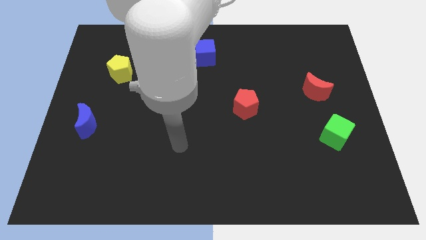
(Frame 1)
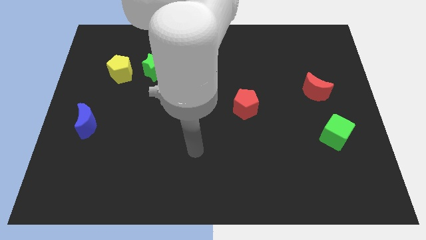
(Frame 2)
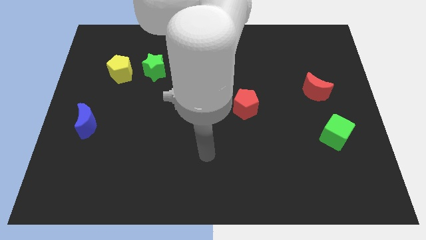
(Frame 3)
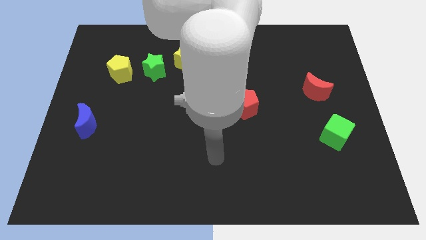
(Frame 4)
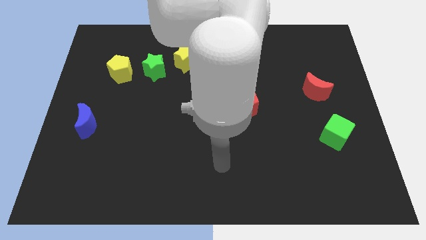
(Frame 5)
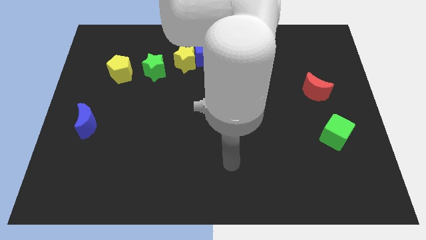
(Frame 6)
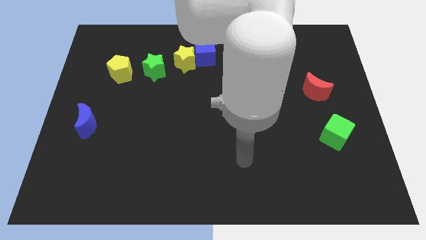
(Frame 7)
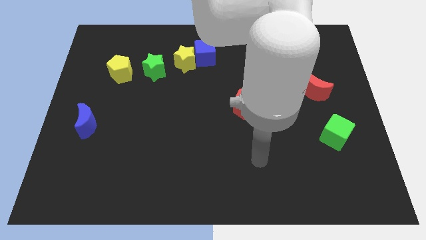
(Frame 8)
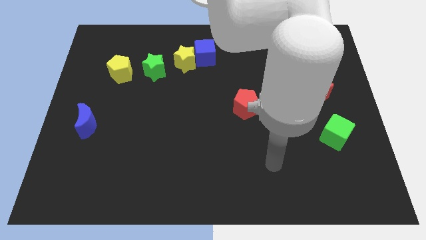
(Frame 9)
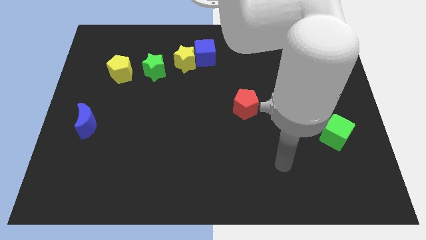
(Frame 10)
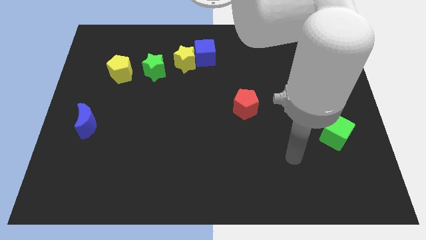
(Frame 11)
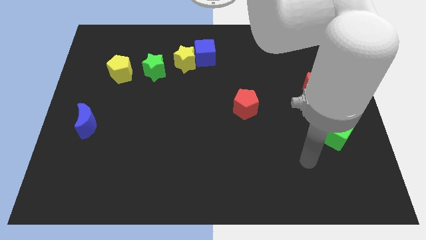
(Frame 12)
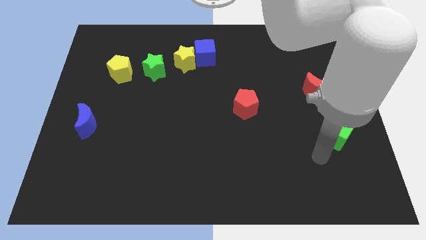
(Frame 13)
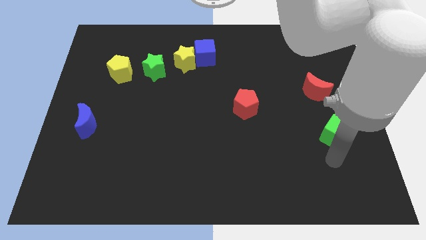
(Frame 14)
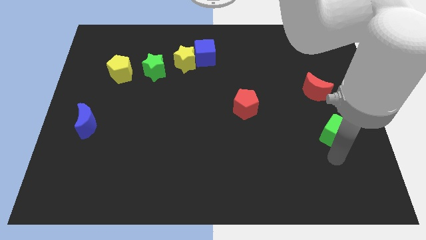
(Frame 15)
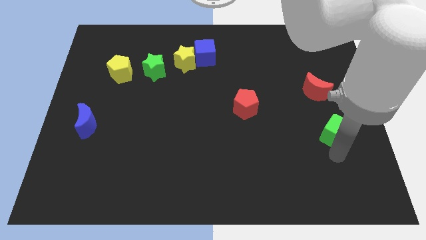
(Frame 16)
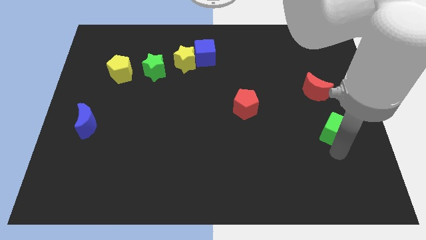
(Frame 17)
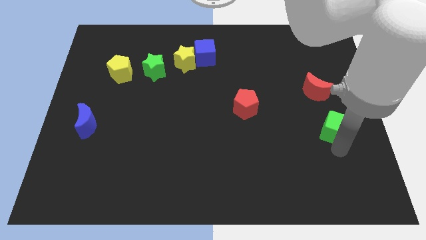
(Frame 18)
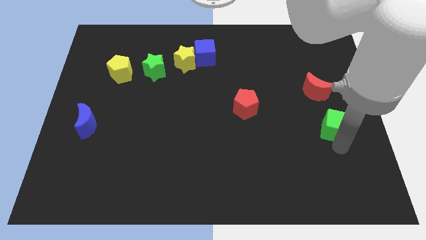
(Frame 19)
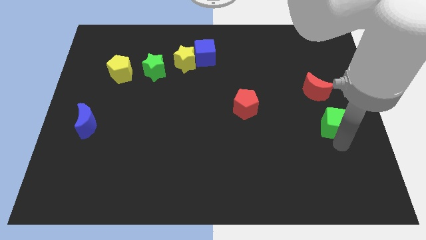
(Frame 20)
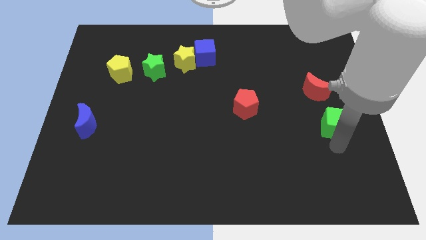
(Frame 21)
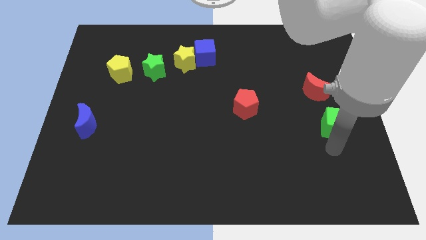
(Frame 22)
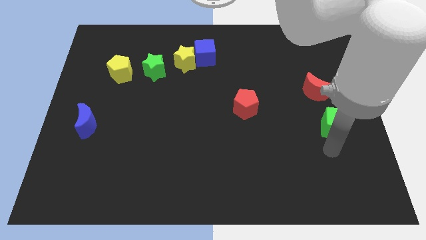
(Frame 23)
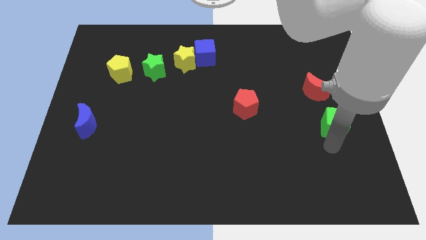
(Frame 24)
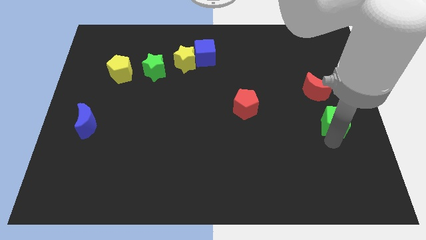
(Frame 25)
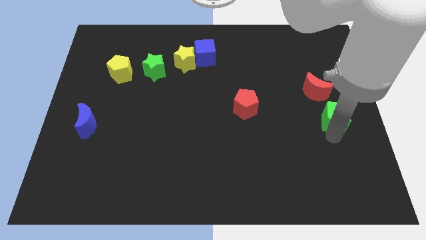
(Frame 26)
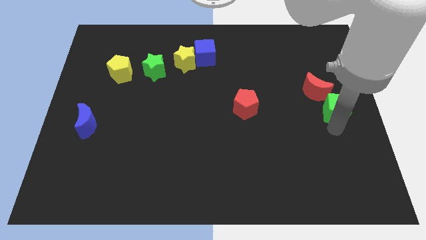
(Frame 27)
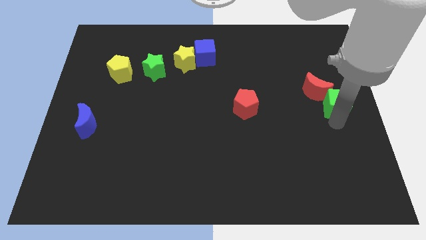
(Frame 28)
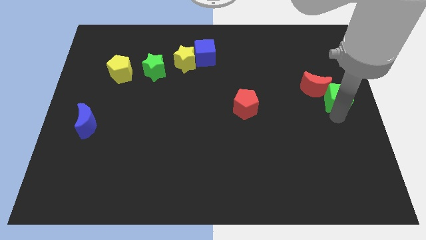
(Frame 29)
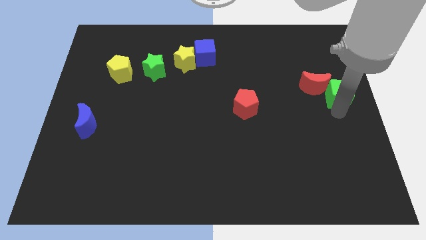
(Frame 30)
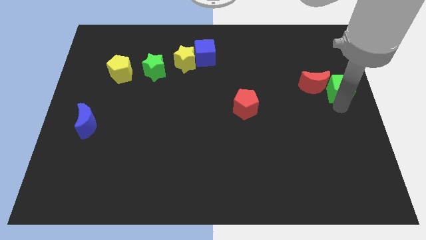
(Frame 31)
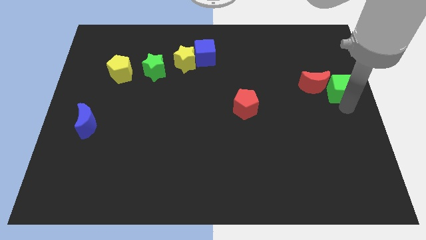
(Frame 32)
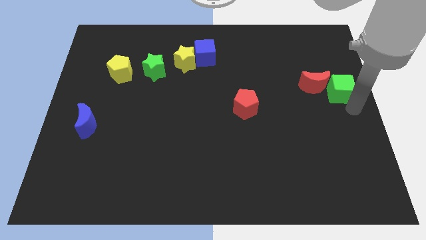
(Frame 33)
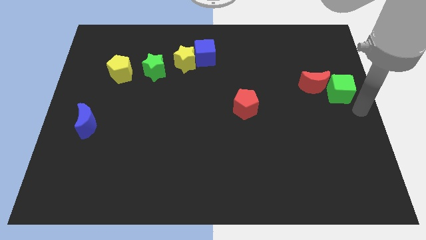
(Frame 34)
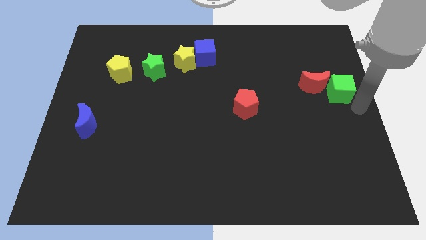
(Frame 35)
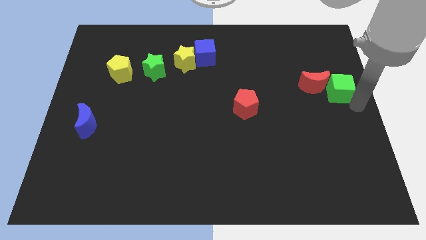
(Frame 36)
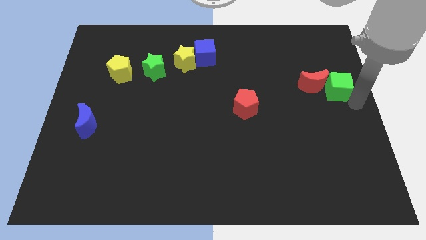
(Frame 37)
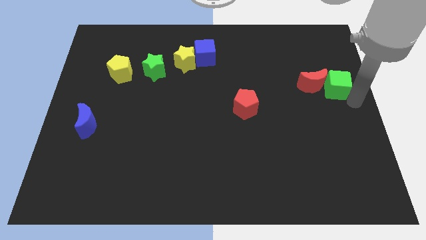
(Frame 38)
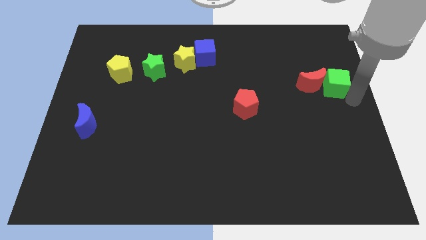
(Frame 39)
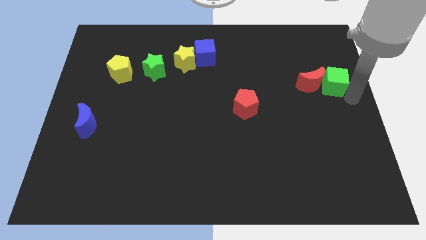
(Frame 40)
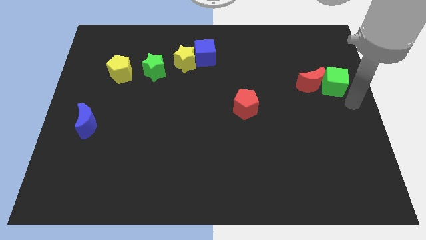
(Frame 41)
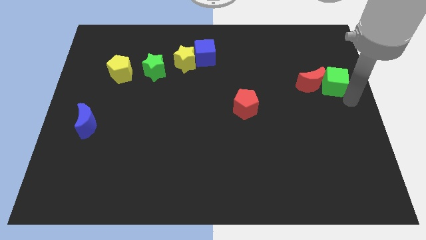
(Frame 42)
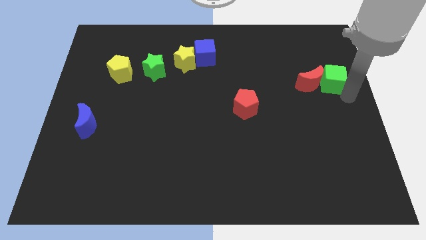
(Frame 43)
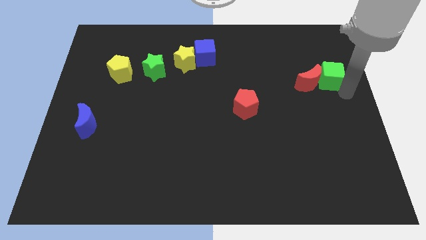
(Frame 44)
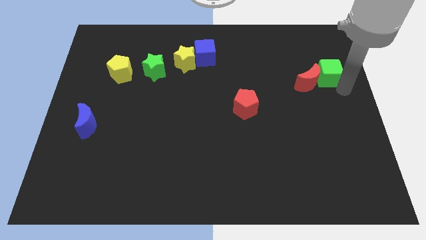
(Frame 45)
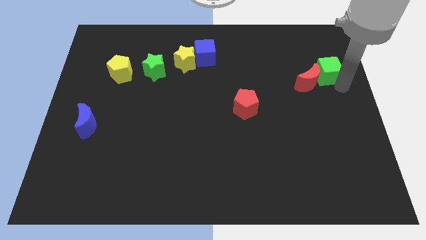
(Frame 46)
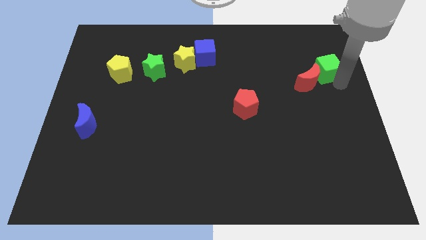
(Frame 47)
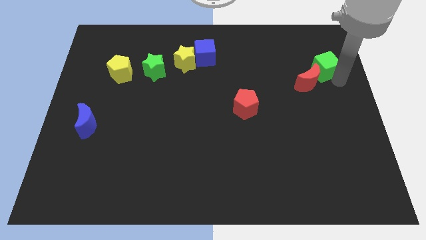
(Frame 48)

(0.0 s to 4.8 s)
push the green cube above the red moon

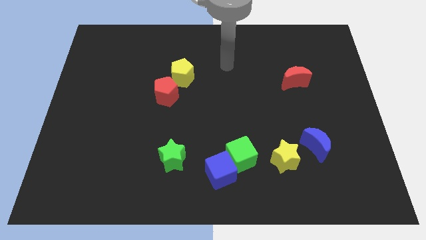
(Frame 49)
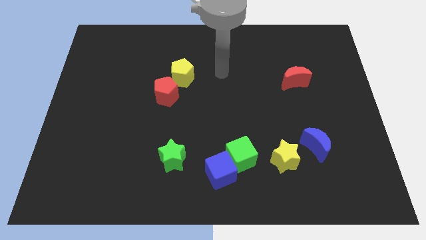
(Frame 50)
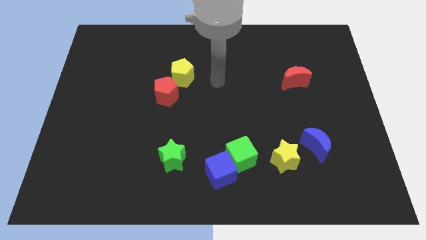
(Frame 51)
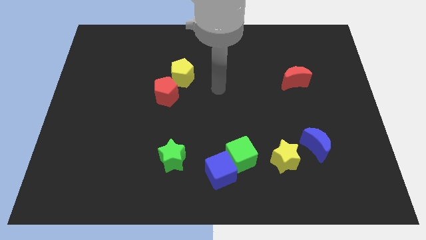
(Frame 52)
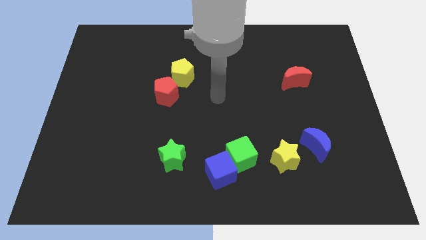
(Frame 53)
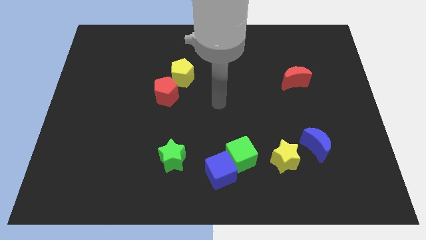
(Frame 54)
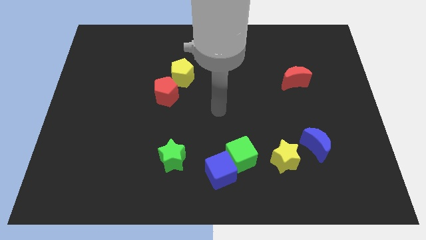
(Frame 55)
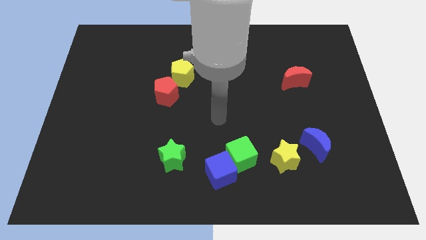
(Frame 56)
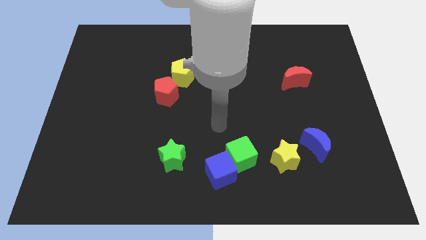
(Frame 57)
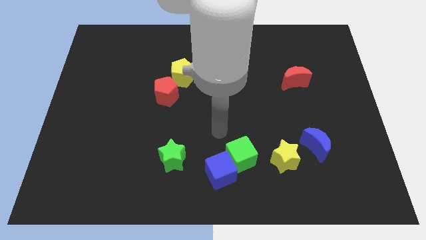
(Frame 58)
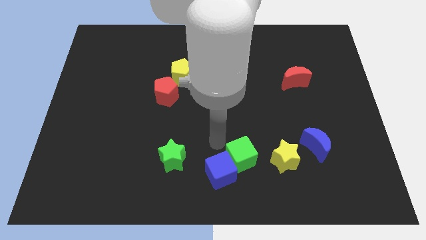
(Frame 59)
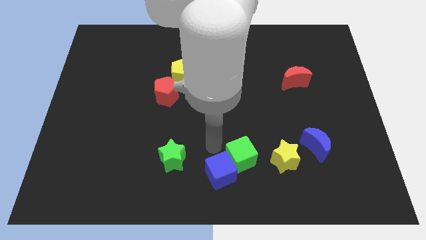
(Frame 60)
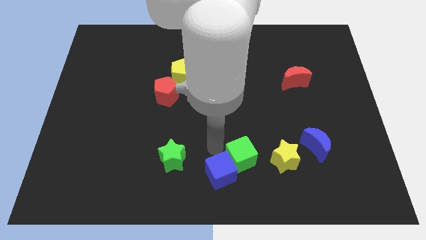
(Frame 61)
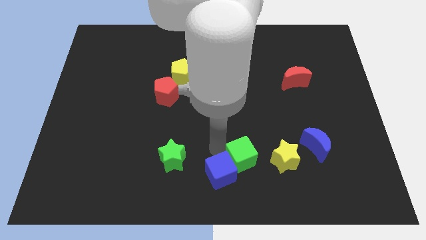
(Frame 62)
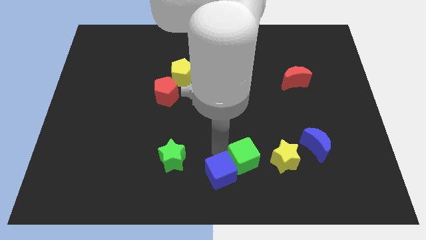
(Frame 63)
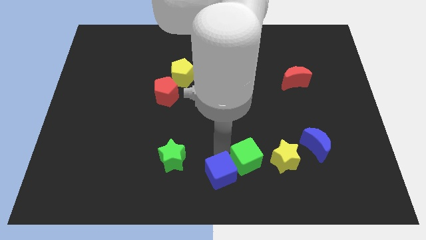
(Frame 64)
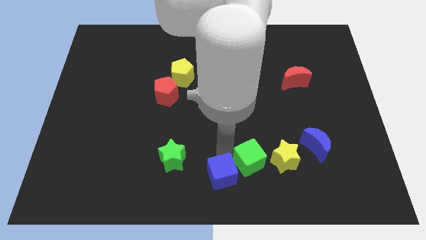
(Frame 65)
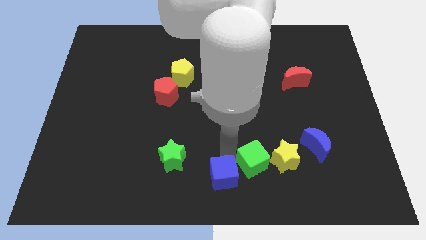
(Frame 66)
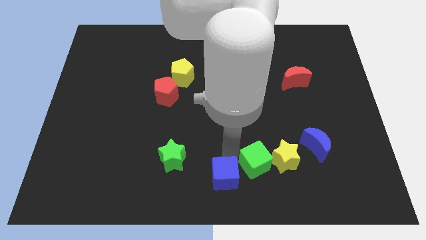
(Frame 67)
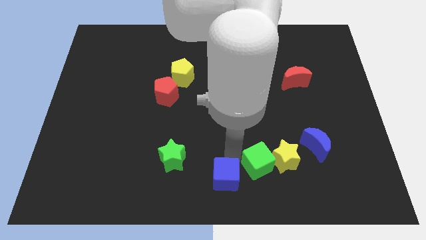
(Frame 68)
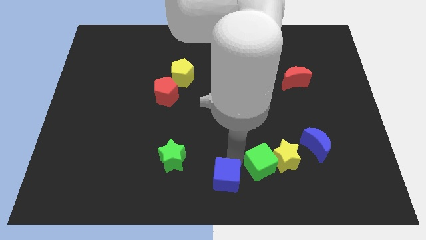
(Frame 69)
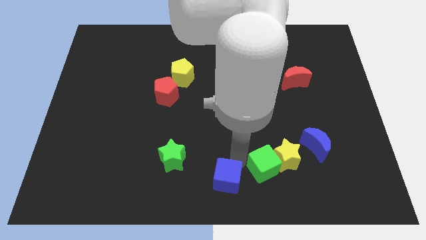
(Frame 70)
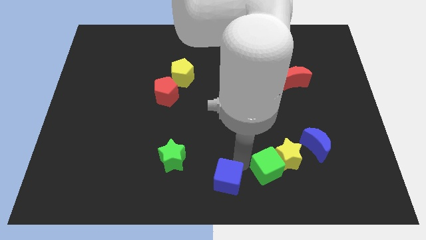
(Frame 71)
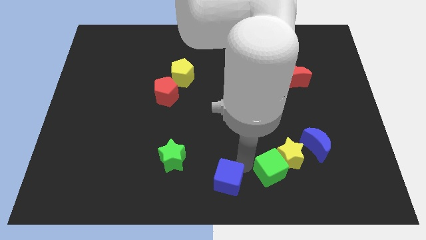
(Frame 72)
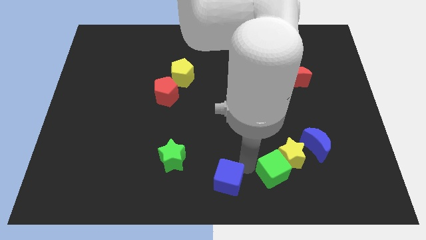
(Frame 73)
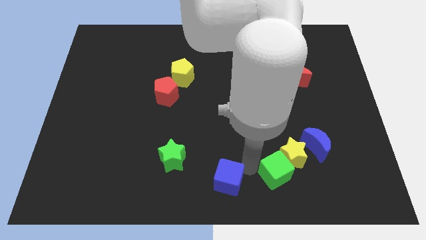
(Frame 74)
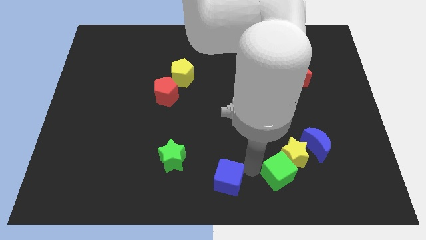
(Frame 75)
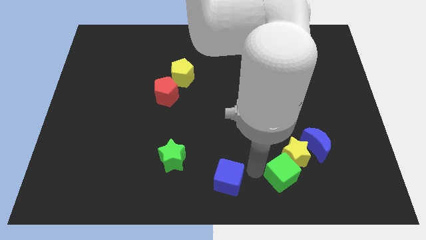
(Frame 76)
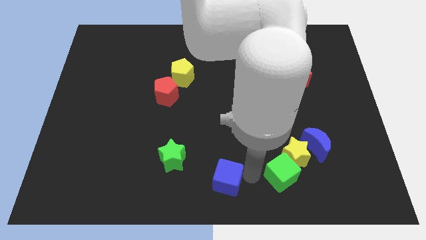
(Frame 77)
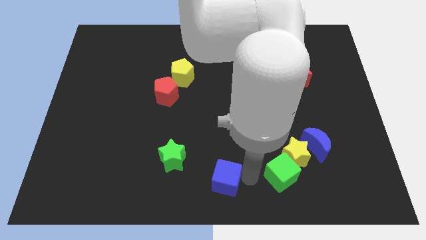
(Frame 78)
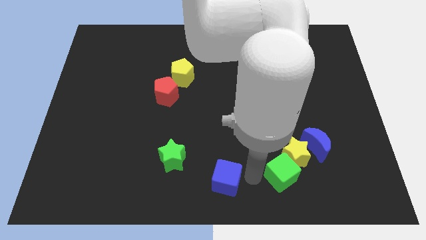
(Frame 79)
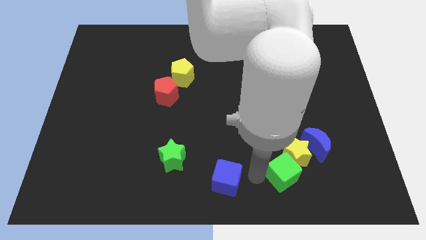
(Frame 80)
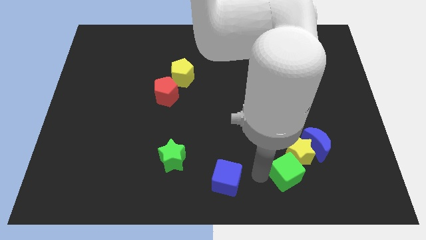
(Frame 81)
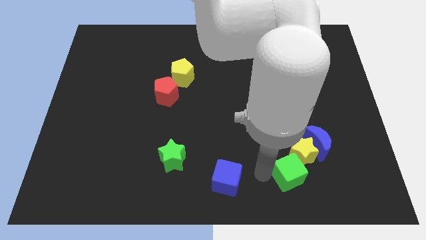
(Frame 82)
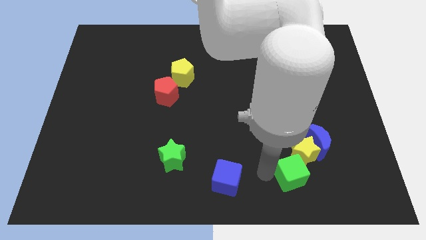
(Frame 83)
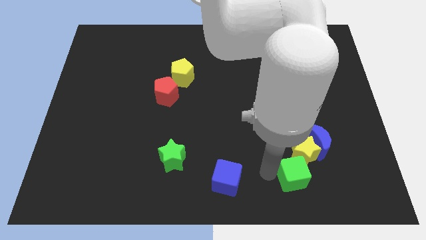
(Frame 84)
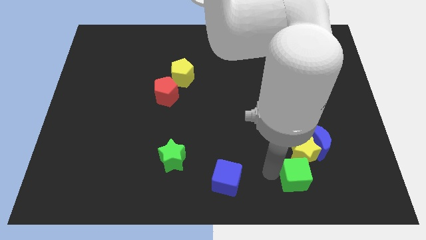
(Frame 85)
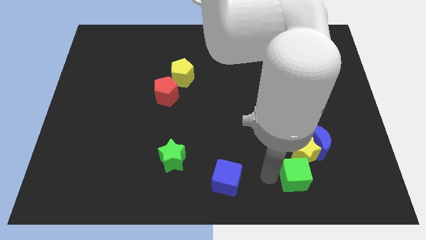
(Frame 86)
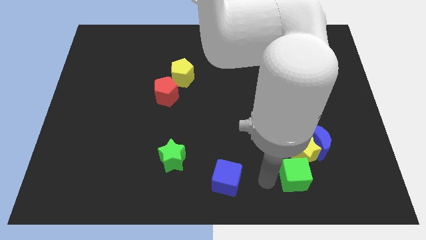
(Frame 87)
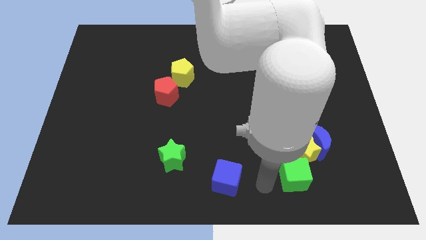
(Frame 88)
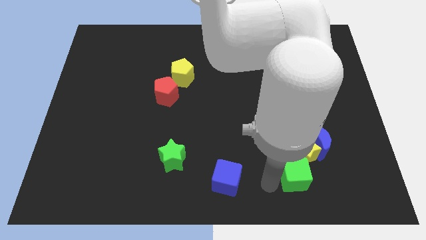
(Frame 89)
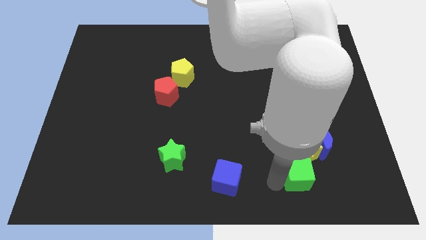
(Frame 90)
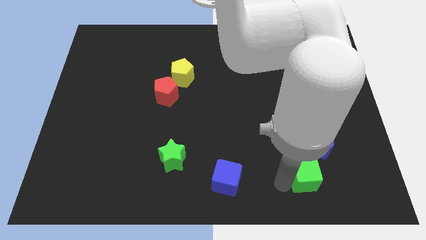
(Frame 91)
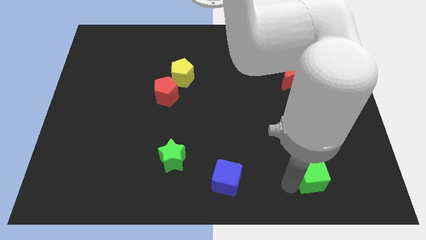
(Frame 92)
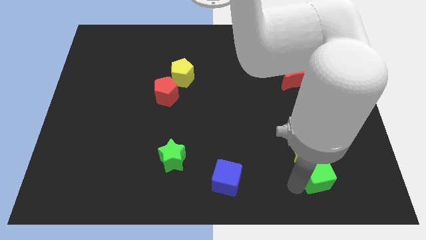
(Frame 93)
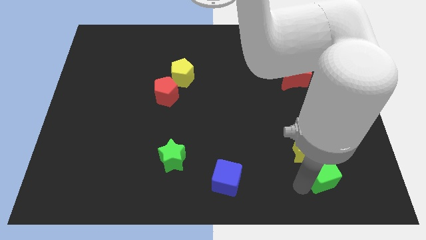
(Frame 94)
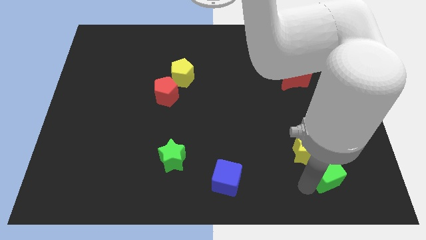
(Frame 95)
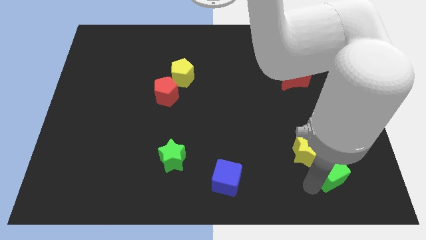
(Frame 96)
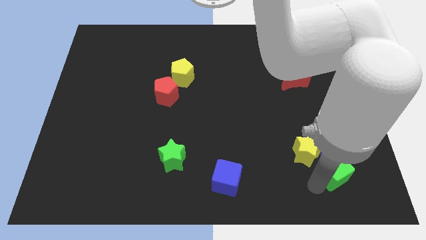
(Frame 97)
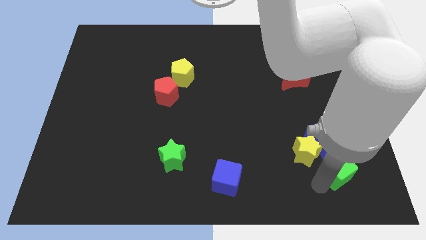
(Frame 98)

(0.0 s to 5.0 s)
slide the green cube to the right of the yellow star
